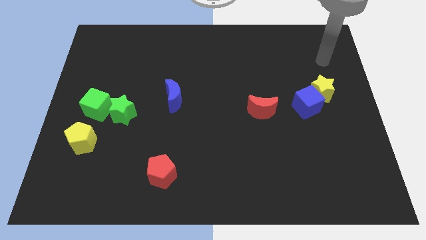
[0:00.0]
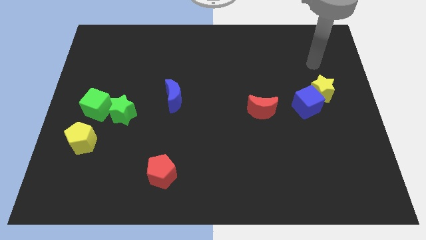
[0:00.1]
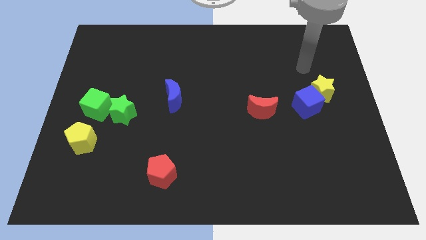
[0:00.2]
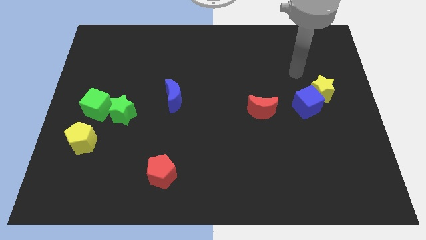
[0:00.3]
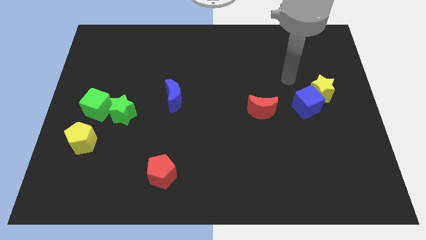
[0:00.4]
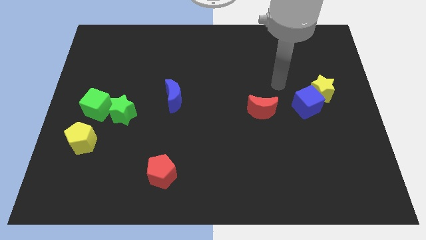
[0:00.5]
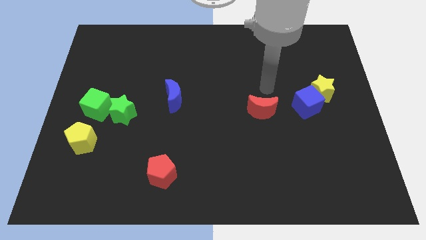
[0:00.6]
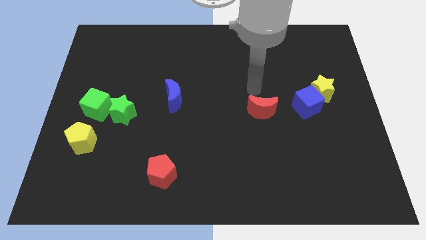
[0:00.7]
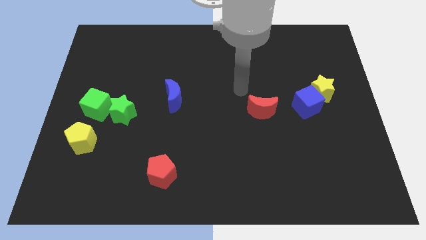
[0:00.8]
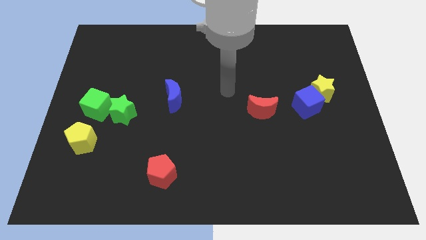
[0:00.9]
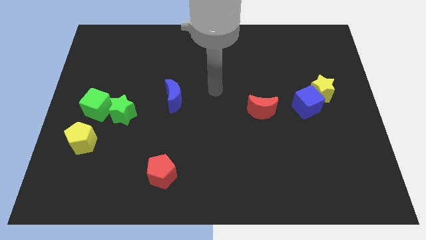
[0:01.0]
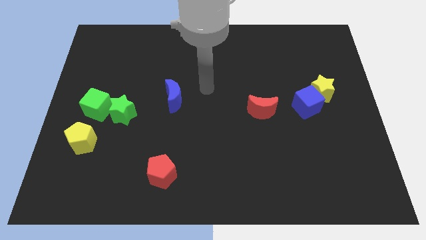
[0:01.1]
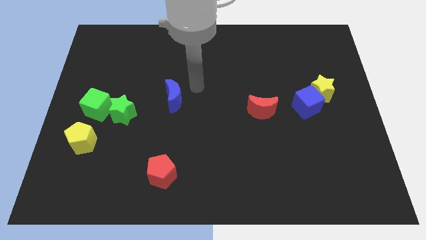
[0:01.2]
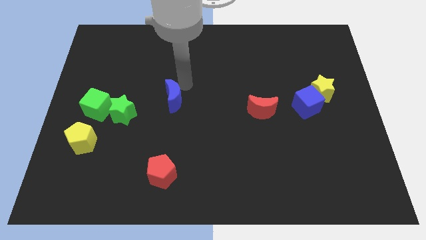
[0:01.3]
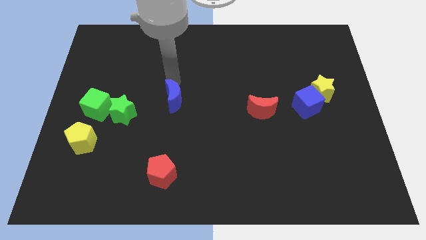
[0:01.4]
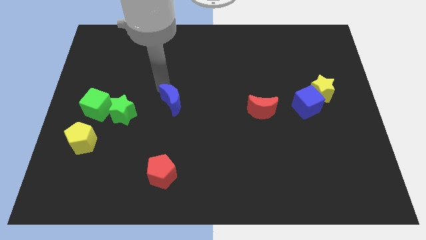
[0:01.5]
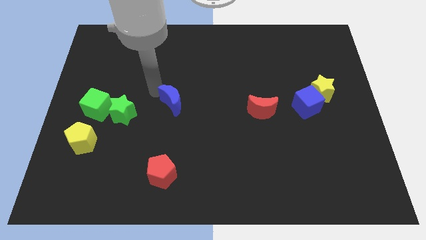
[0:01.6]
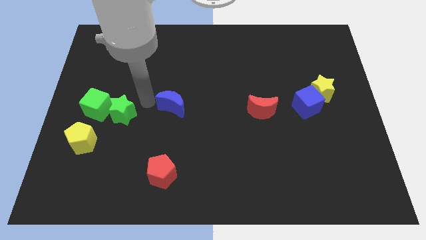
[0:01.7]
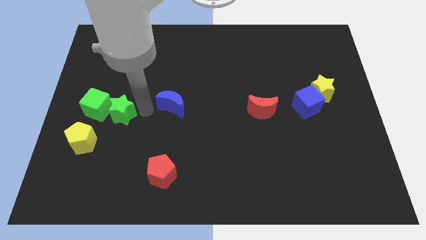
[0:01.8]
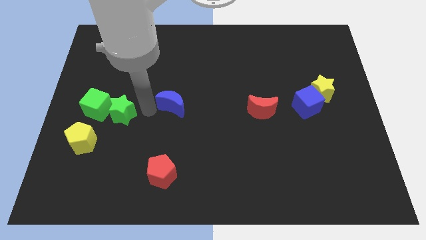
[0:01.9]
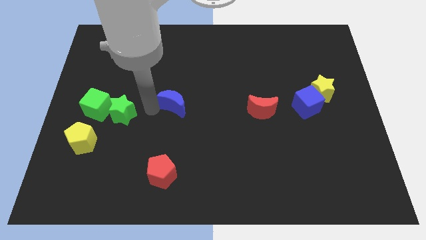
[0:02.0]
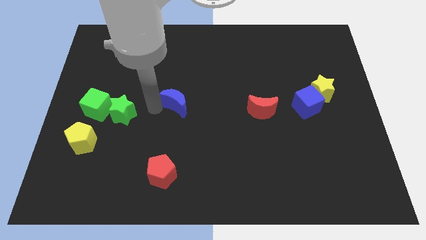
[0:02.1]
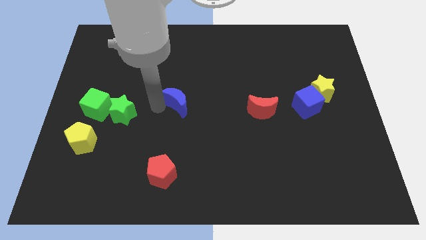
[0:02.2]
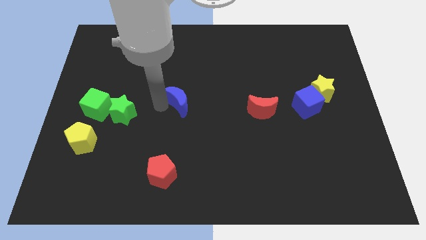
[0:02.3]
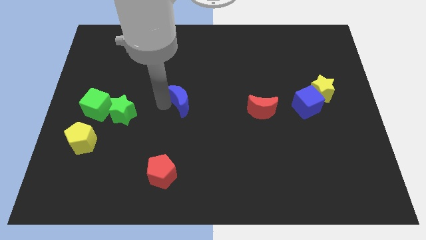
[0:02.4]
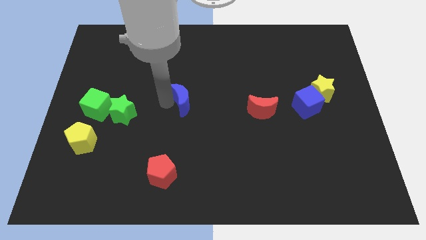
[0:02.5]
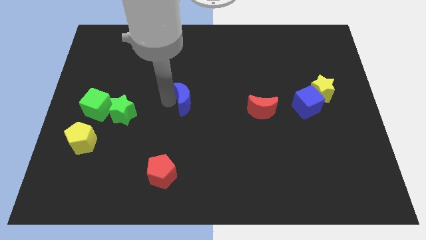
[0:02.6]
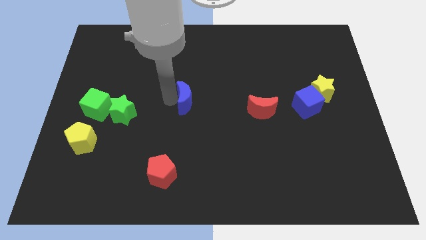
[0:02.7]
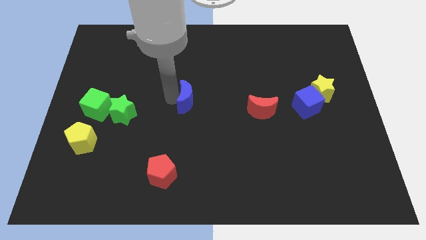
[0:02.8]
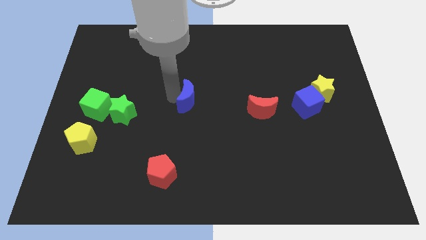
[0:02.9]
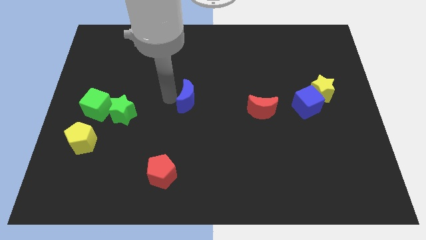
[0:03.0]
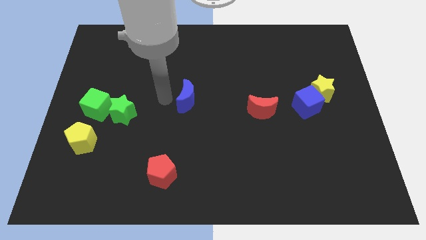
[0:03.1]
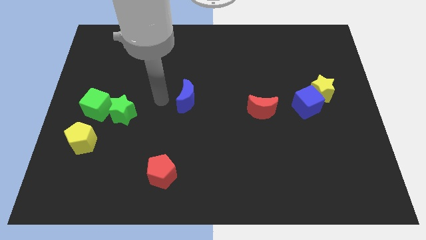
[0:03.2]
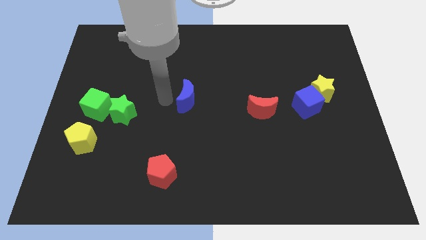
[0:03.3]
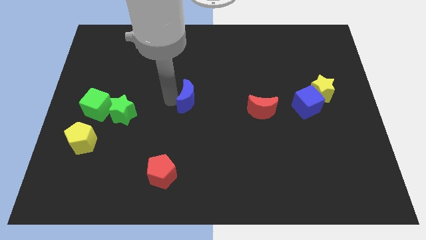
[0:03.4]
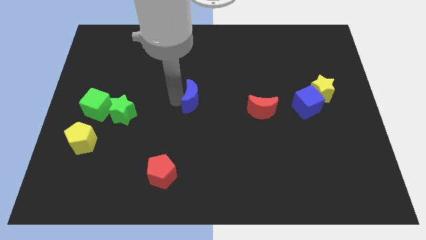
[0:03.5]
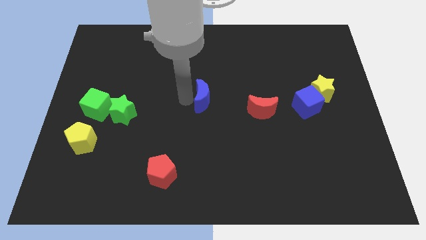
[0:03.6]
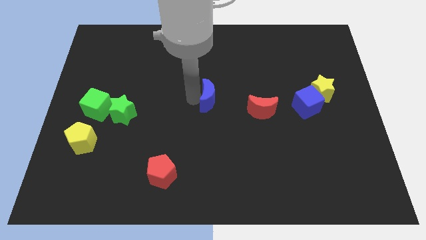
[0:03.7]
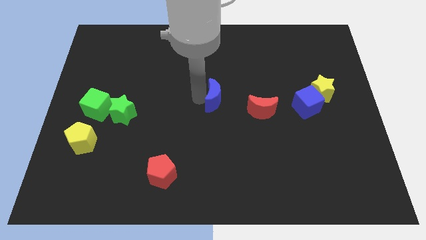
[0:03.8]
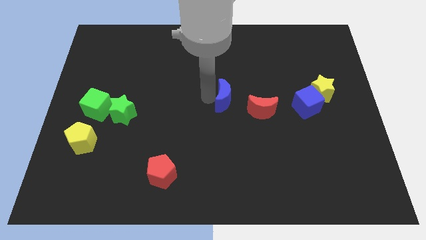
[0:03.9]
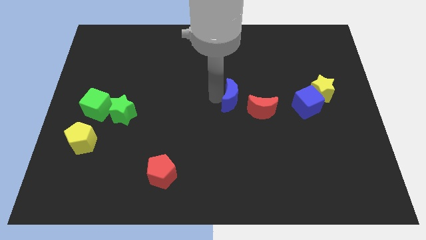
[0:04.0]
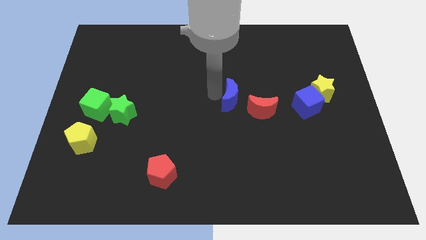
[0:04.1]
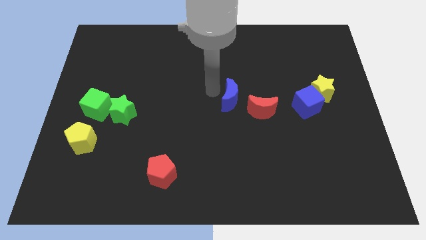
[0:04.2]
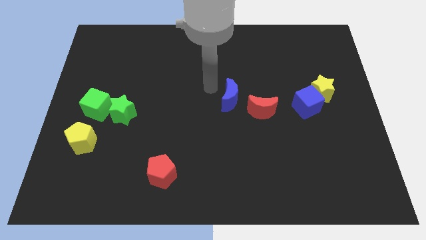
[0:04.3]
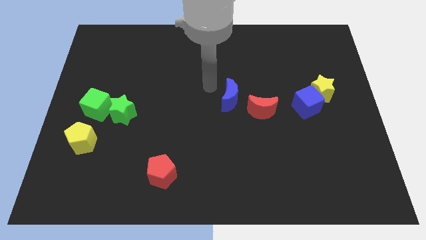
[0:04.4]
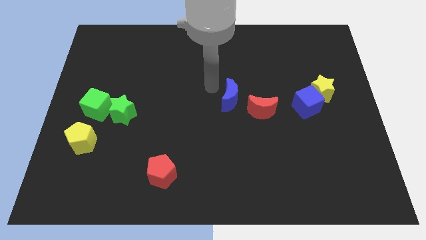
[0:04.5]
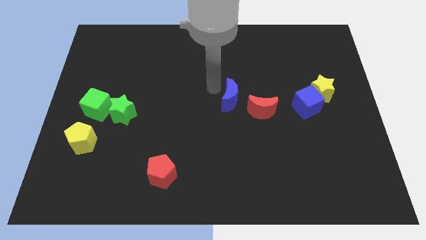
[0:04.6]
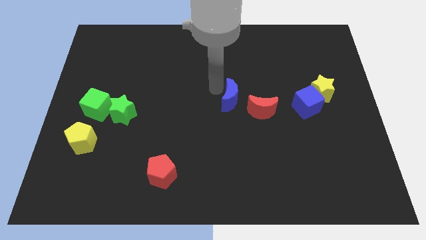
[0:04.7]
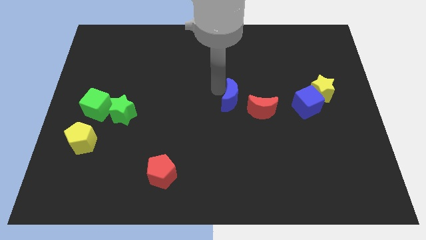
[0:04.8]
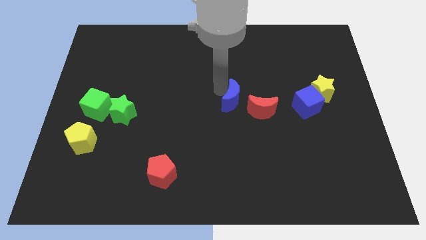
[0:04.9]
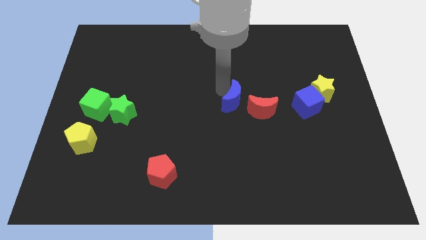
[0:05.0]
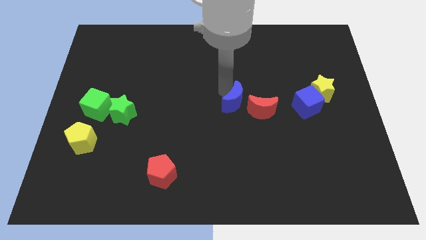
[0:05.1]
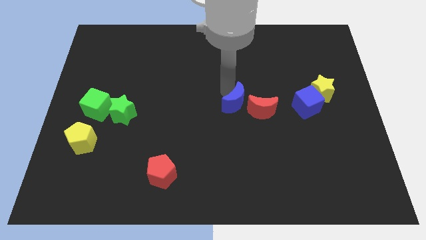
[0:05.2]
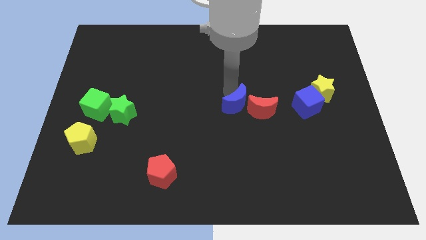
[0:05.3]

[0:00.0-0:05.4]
push the blue moon to the red moon

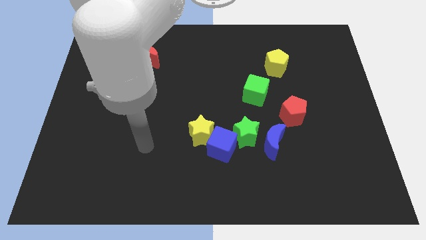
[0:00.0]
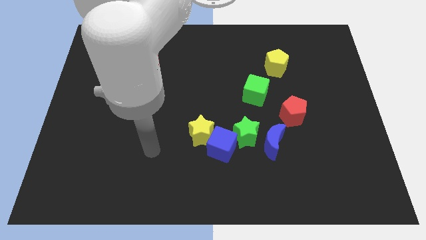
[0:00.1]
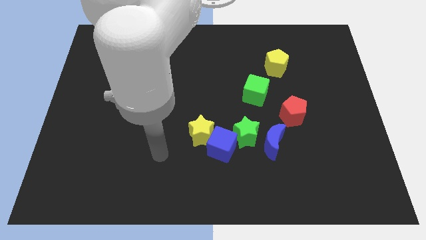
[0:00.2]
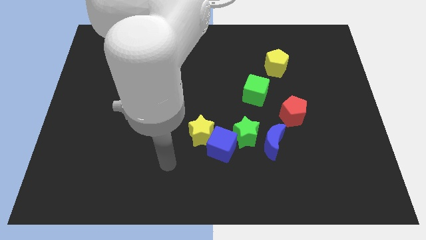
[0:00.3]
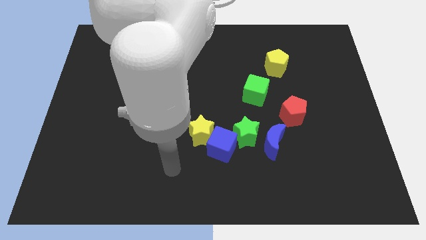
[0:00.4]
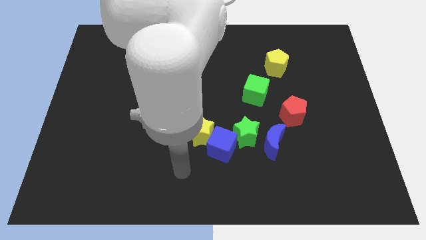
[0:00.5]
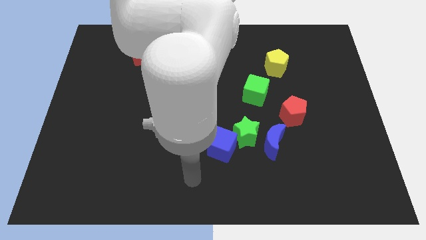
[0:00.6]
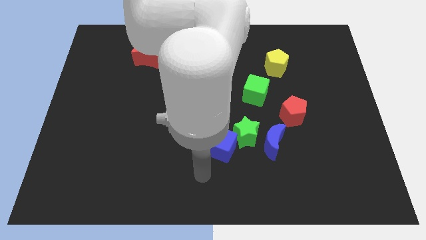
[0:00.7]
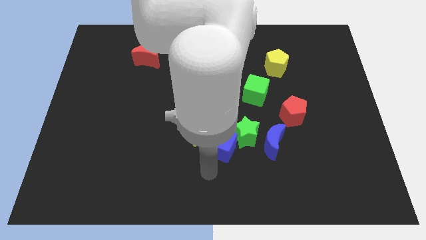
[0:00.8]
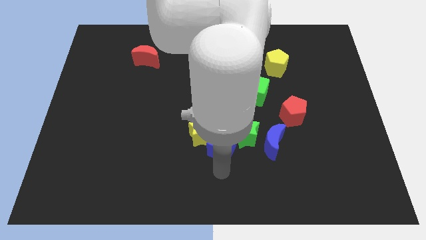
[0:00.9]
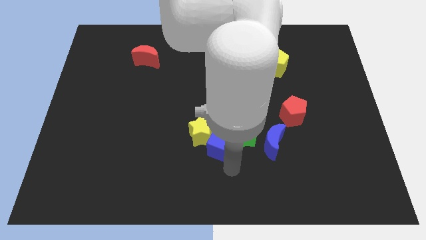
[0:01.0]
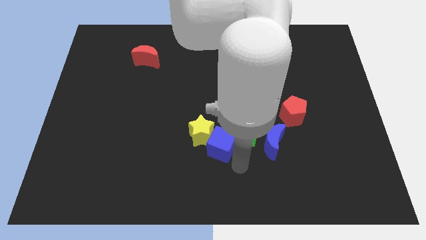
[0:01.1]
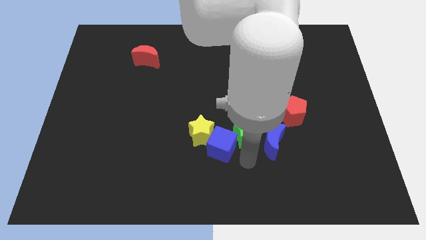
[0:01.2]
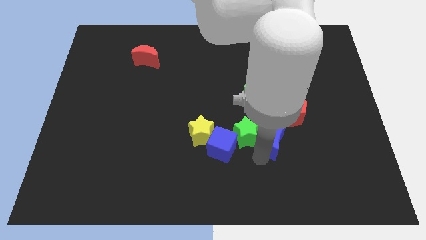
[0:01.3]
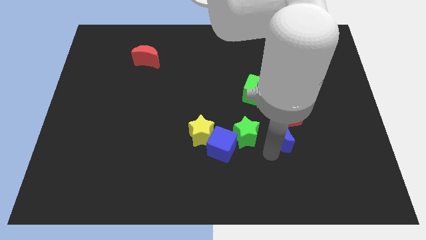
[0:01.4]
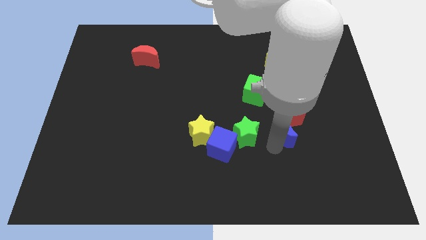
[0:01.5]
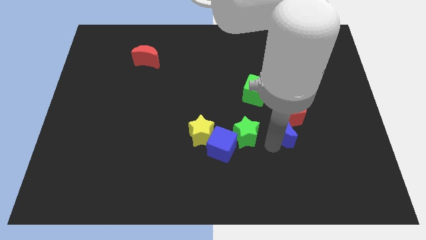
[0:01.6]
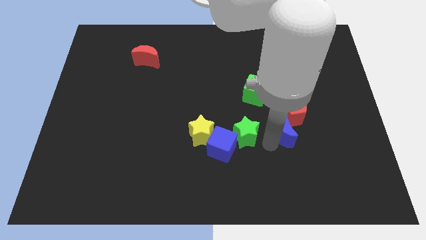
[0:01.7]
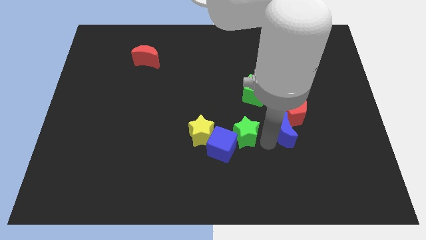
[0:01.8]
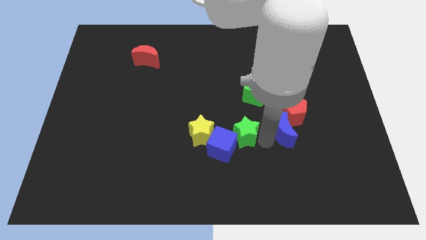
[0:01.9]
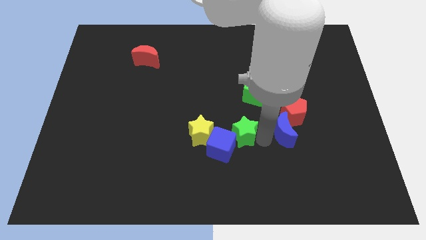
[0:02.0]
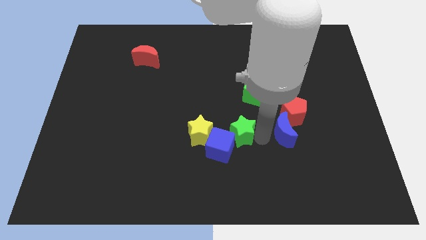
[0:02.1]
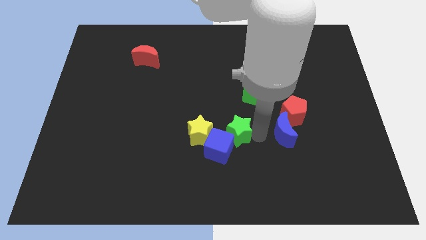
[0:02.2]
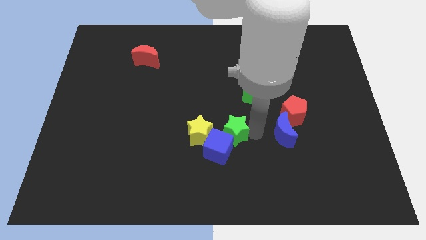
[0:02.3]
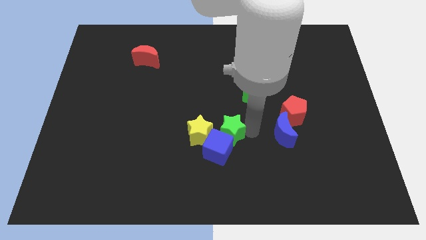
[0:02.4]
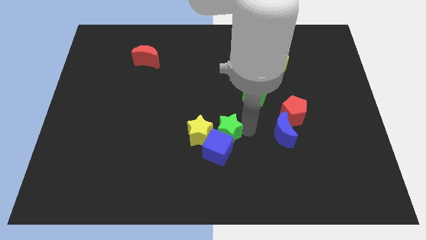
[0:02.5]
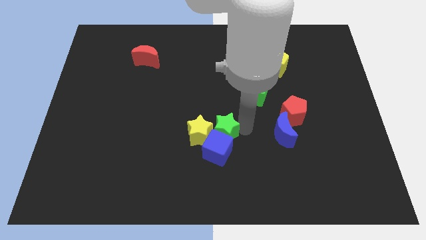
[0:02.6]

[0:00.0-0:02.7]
put the green star close to the yellow star
